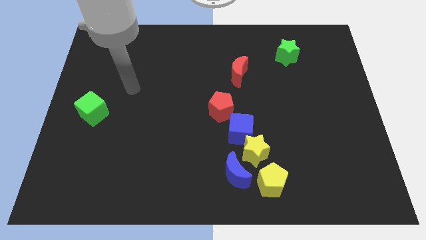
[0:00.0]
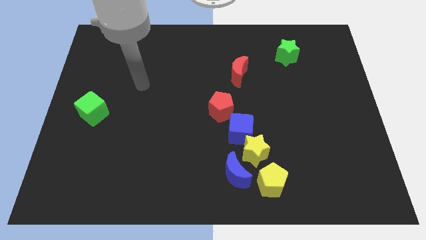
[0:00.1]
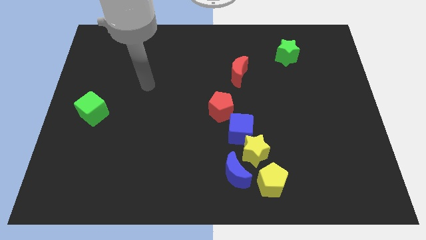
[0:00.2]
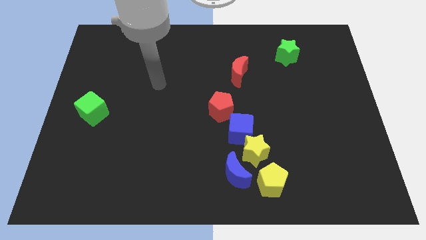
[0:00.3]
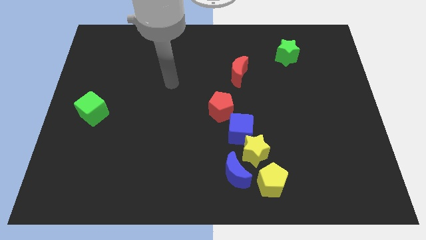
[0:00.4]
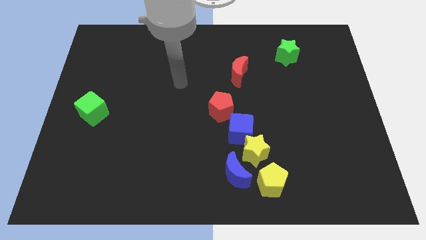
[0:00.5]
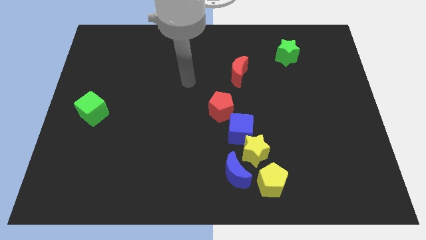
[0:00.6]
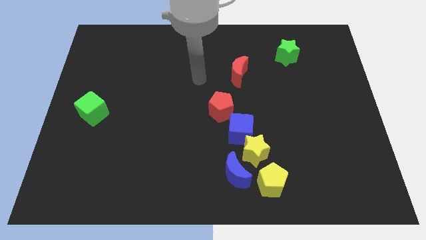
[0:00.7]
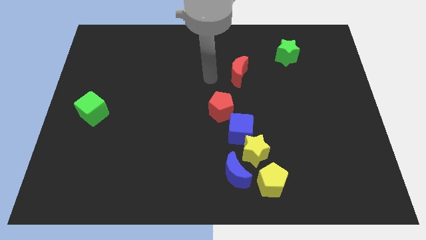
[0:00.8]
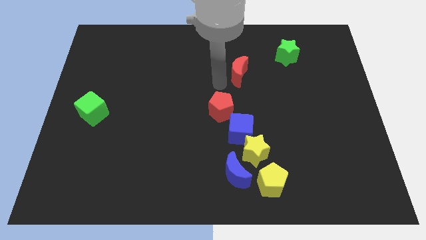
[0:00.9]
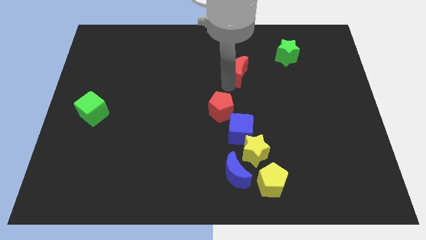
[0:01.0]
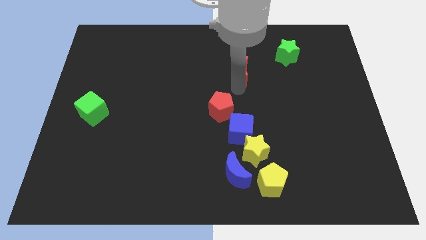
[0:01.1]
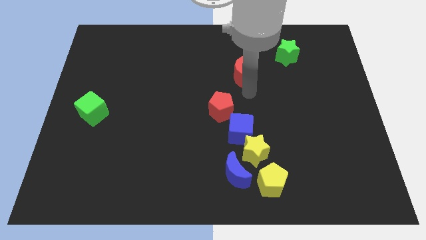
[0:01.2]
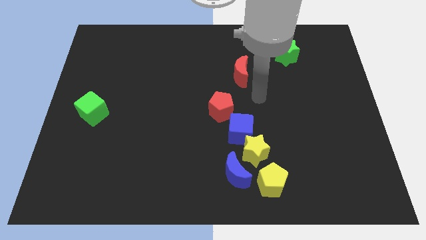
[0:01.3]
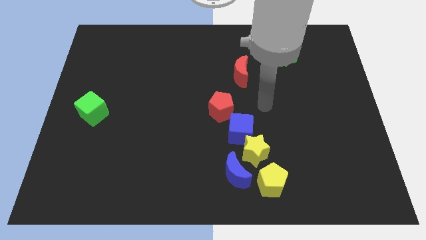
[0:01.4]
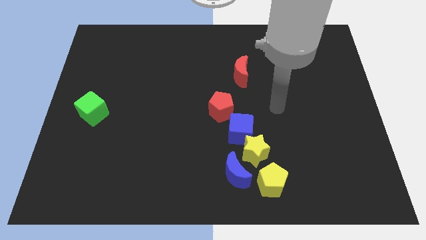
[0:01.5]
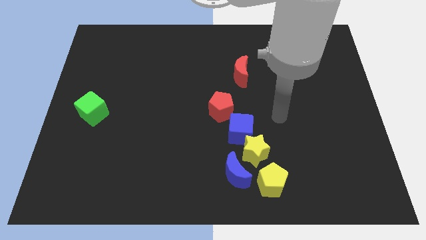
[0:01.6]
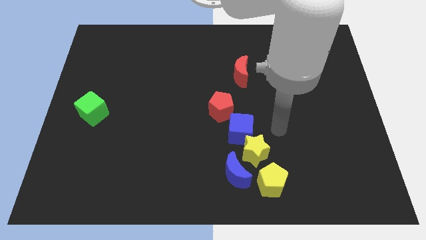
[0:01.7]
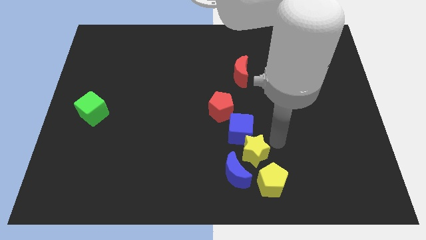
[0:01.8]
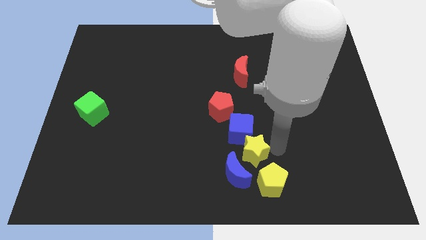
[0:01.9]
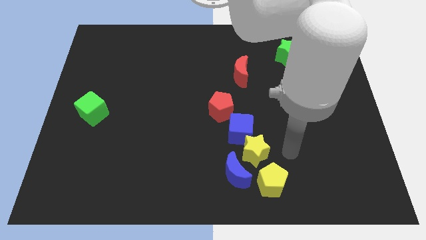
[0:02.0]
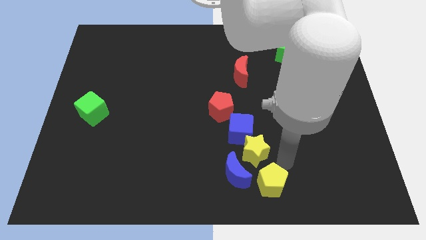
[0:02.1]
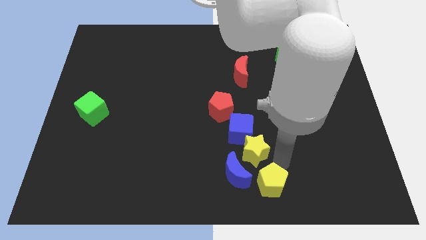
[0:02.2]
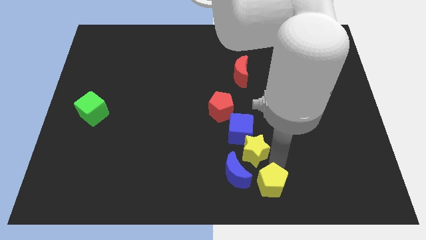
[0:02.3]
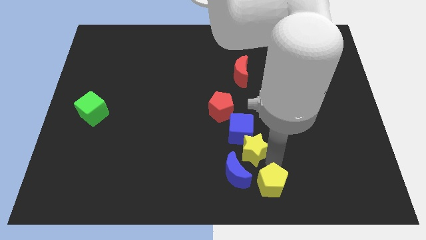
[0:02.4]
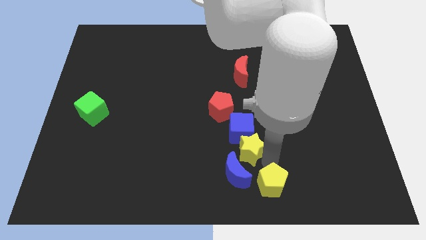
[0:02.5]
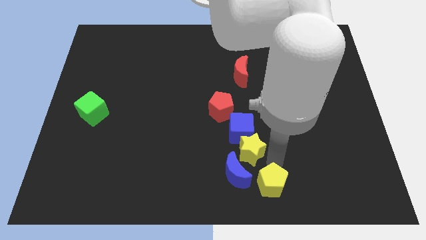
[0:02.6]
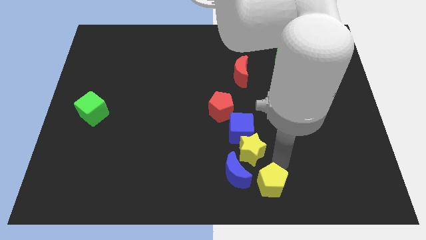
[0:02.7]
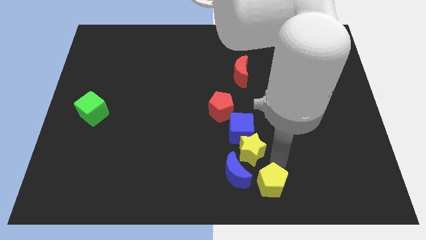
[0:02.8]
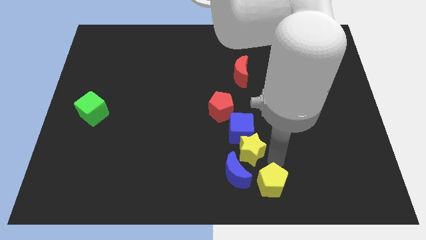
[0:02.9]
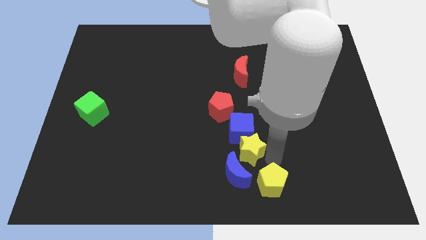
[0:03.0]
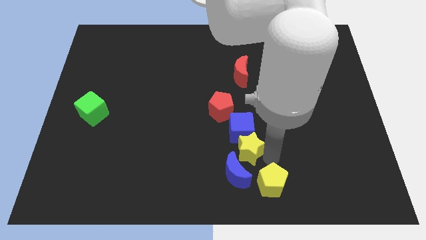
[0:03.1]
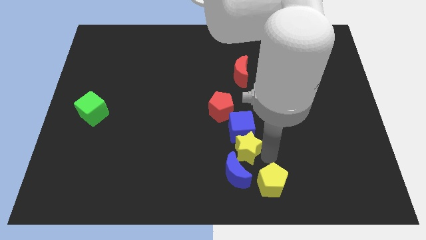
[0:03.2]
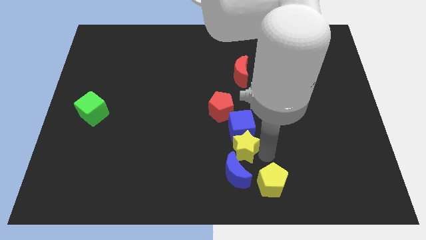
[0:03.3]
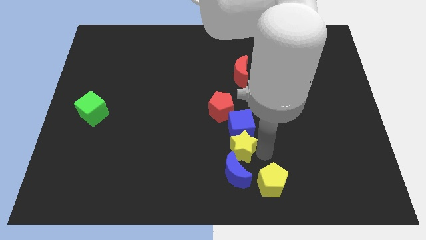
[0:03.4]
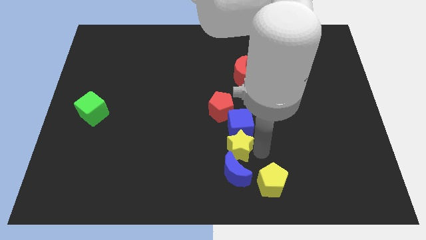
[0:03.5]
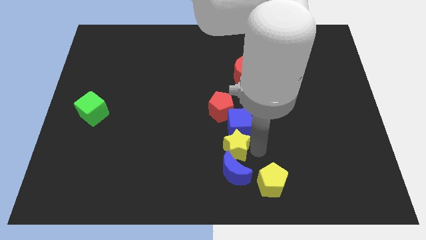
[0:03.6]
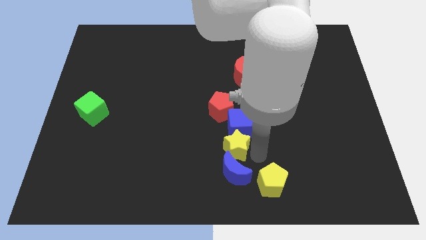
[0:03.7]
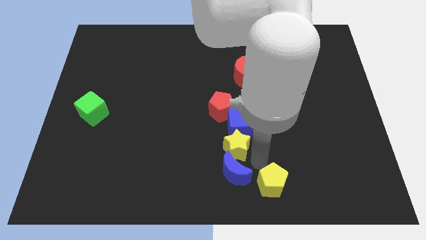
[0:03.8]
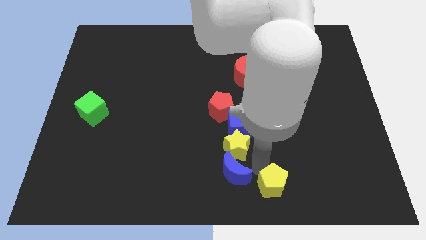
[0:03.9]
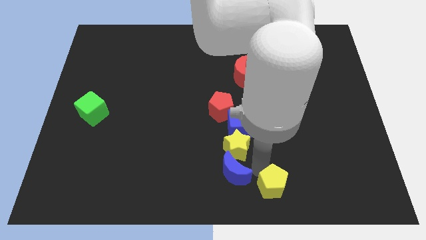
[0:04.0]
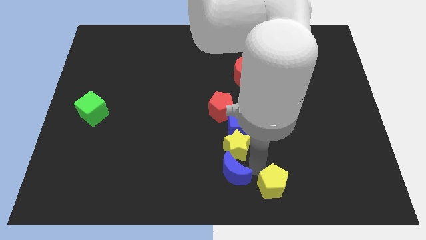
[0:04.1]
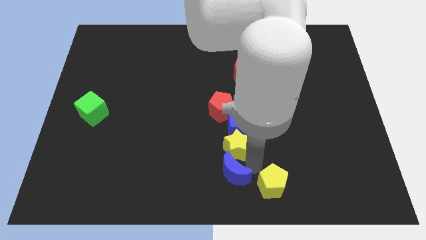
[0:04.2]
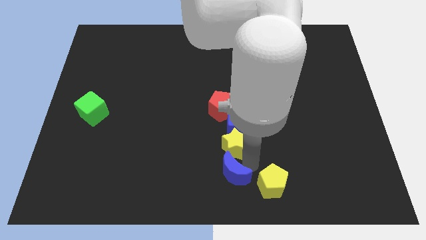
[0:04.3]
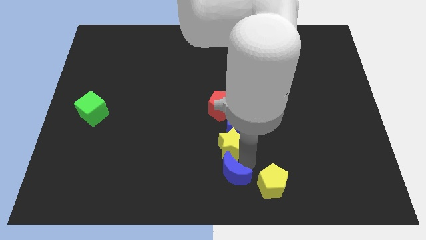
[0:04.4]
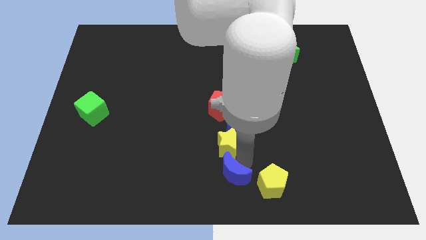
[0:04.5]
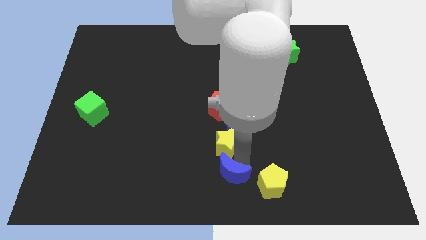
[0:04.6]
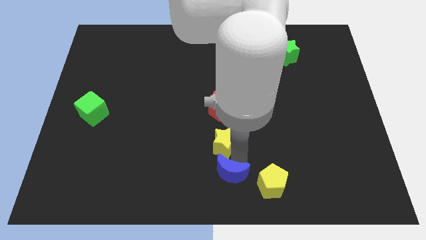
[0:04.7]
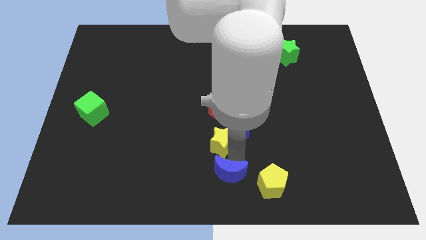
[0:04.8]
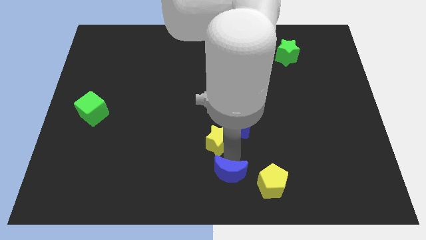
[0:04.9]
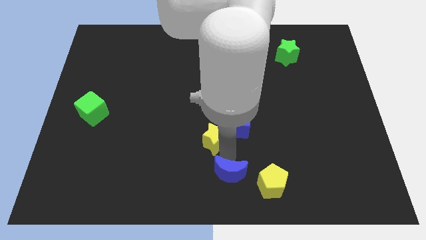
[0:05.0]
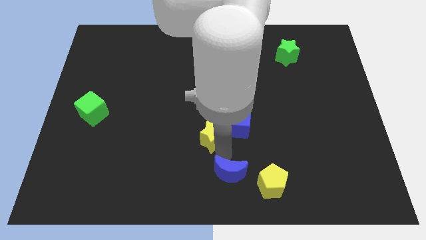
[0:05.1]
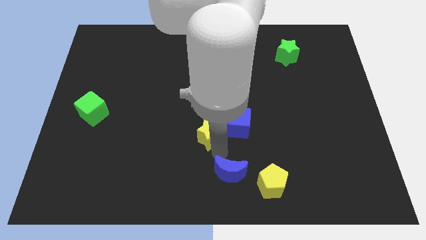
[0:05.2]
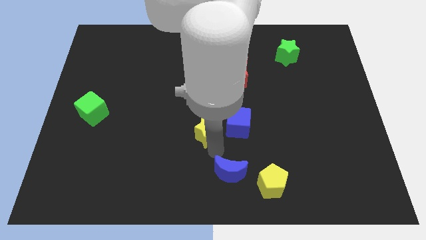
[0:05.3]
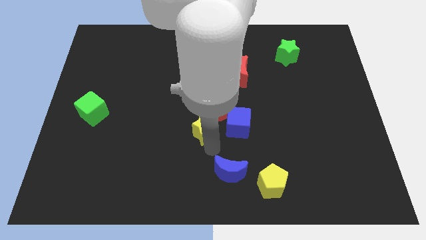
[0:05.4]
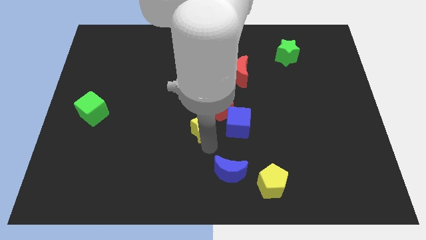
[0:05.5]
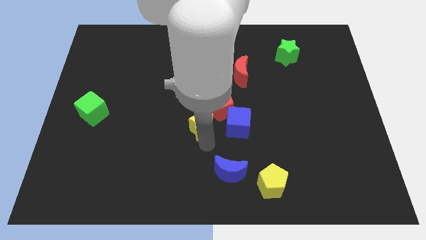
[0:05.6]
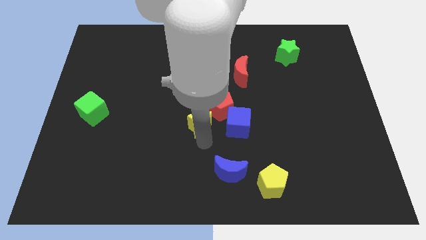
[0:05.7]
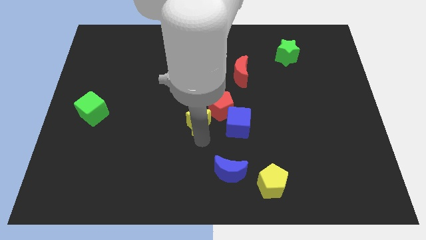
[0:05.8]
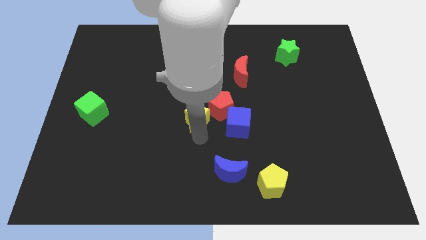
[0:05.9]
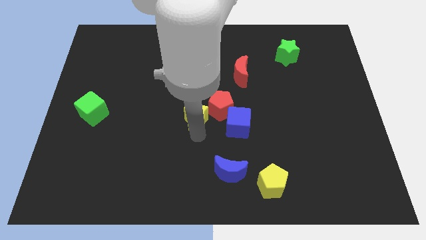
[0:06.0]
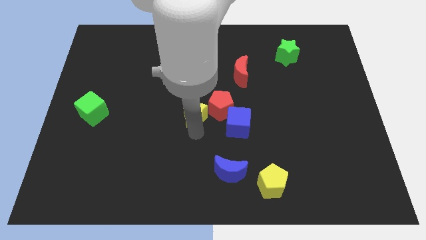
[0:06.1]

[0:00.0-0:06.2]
push the yellow star close to the red pentagon

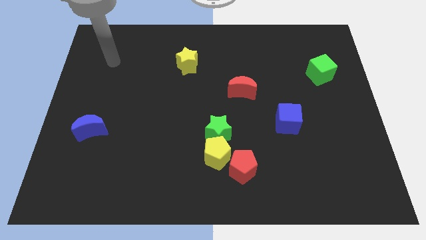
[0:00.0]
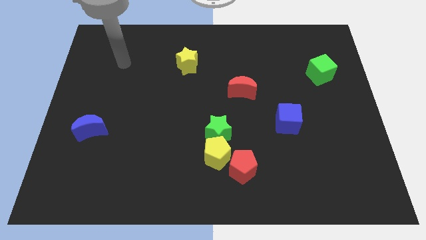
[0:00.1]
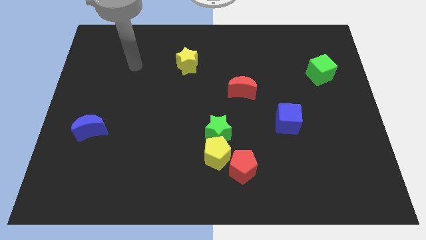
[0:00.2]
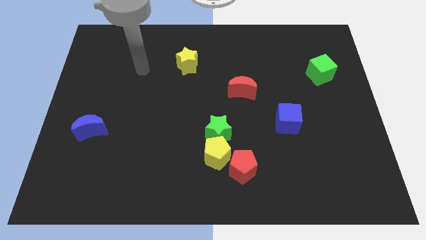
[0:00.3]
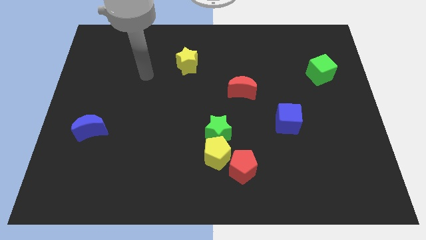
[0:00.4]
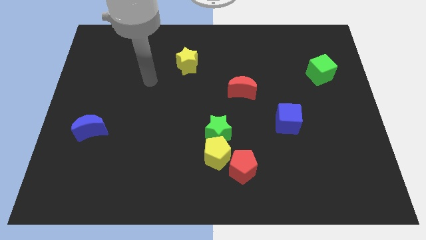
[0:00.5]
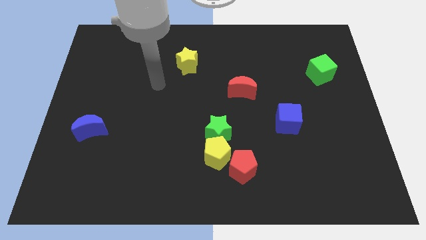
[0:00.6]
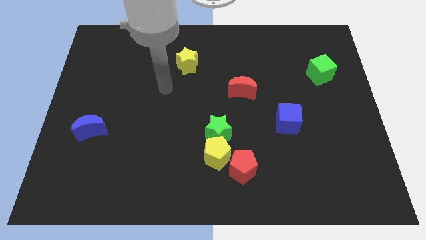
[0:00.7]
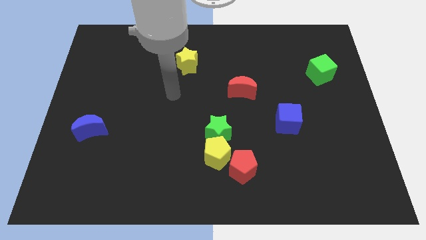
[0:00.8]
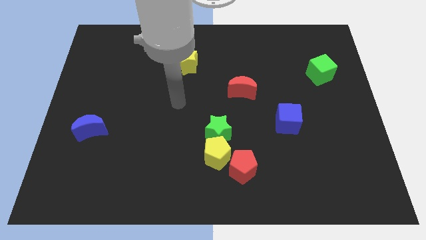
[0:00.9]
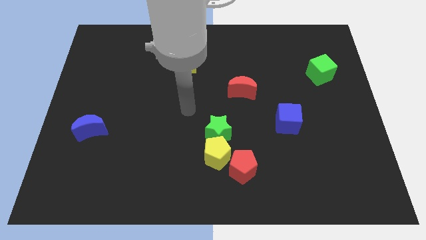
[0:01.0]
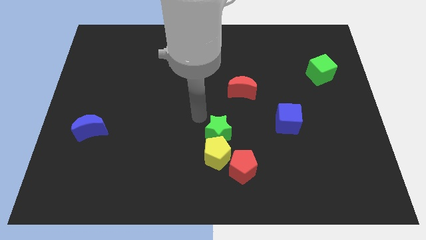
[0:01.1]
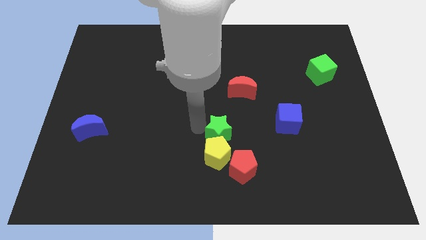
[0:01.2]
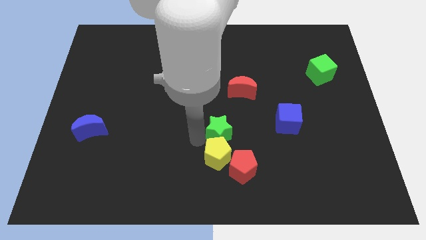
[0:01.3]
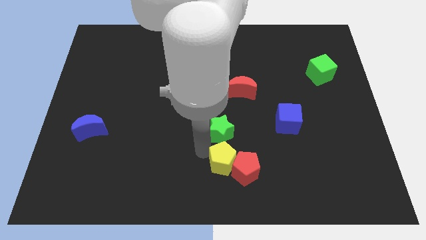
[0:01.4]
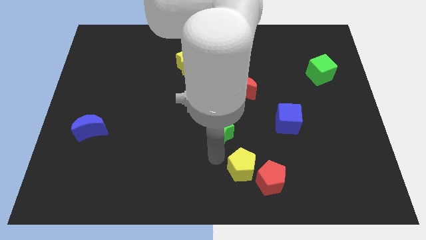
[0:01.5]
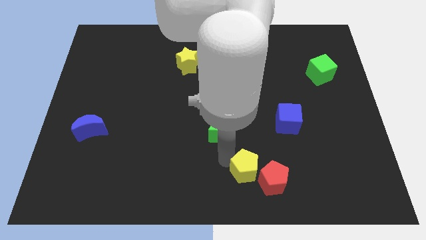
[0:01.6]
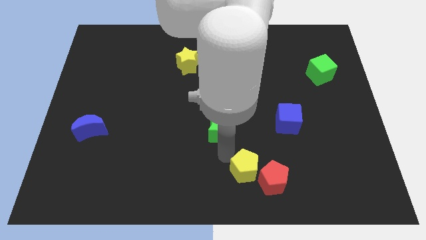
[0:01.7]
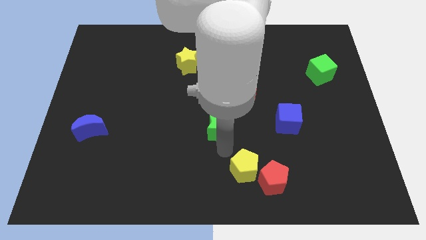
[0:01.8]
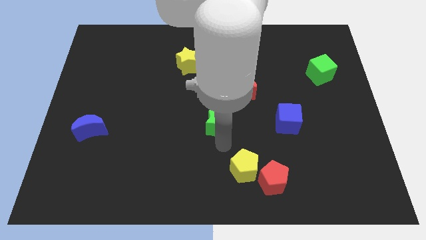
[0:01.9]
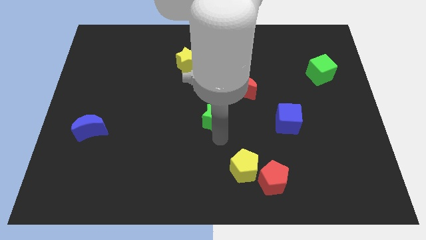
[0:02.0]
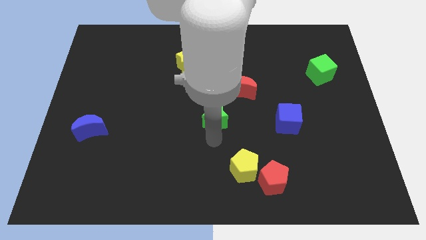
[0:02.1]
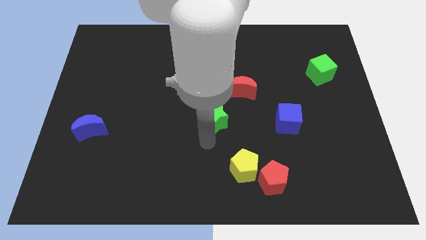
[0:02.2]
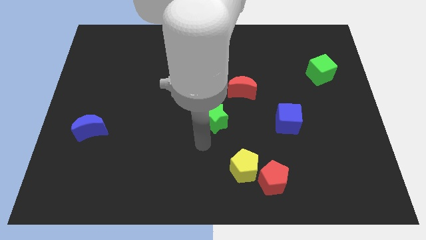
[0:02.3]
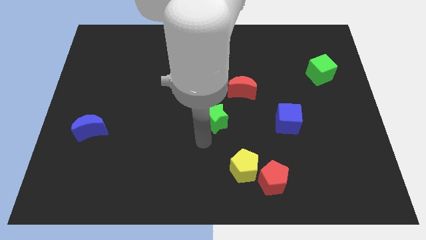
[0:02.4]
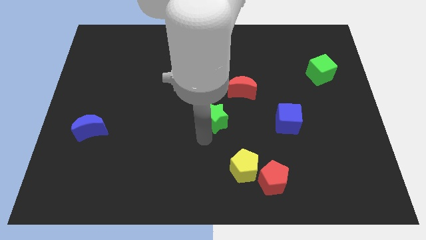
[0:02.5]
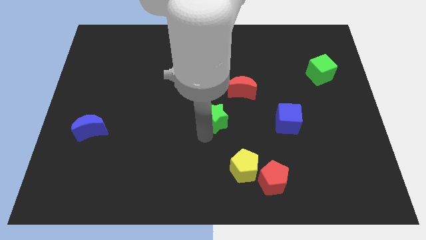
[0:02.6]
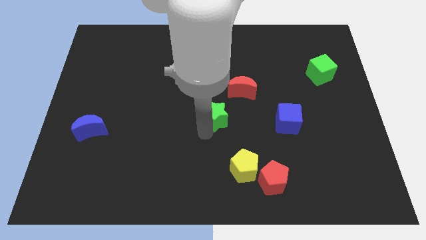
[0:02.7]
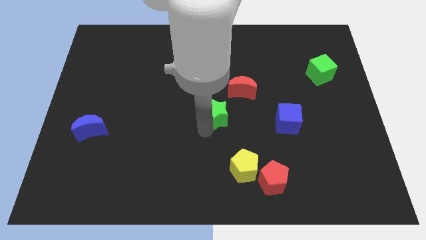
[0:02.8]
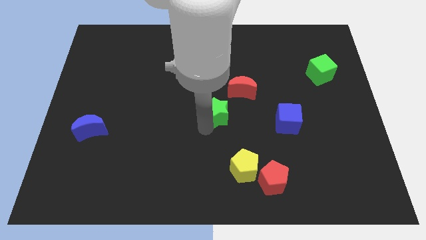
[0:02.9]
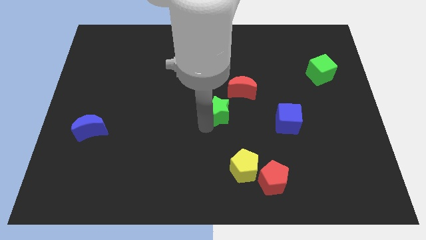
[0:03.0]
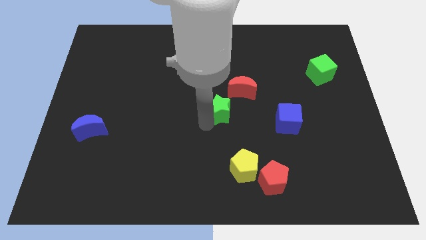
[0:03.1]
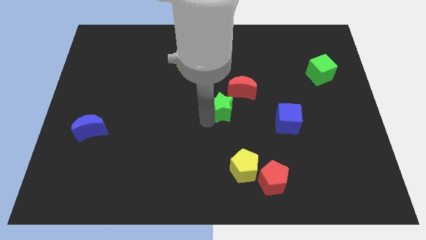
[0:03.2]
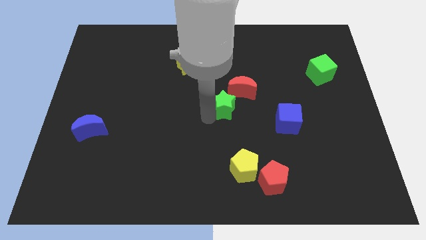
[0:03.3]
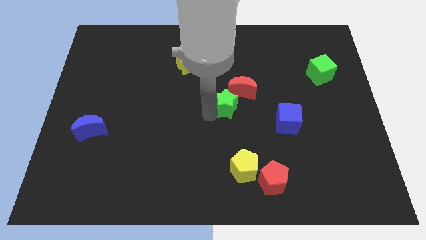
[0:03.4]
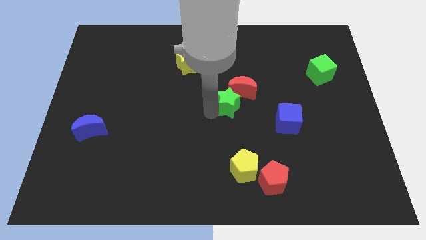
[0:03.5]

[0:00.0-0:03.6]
slide the green star towards the red moon
